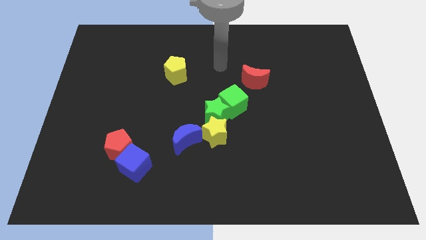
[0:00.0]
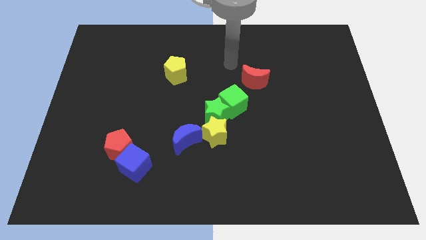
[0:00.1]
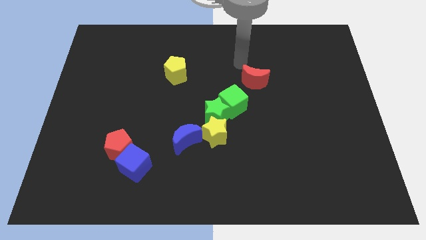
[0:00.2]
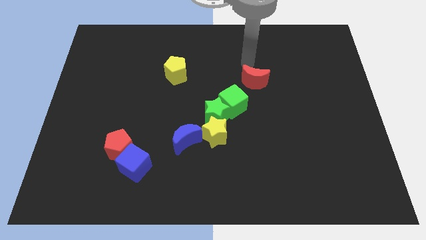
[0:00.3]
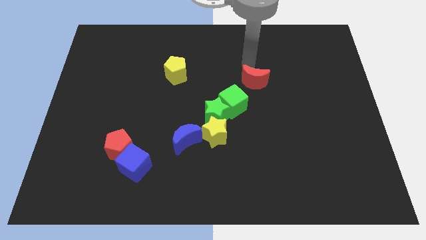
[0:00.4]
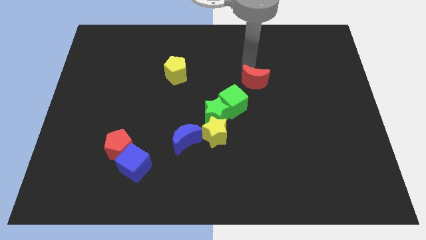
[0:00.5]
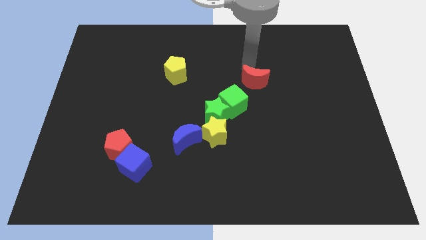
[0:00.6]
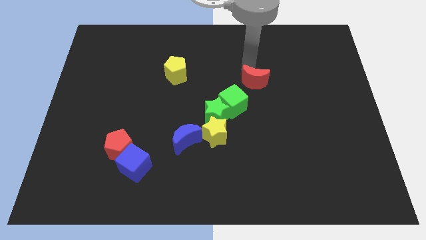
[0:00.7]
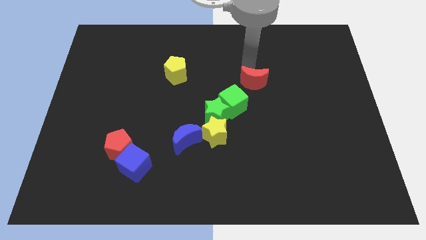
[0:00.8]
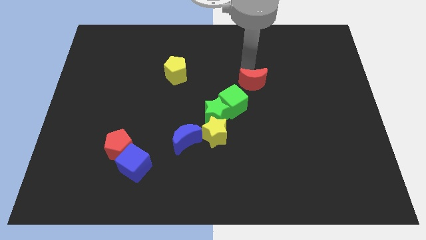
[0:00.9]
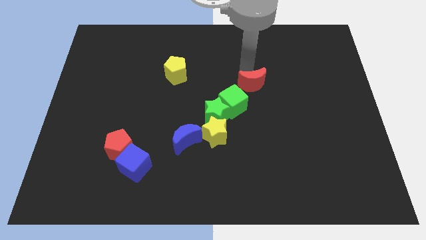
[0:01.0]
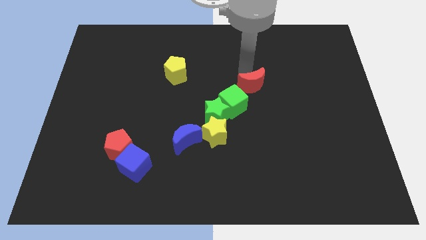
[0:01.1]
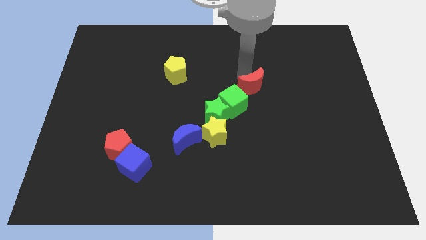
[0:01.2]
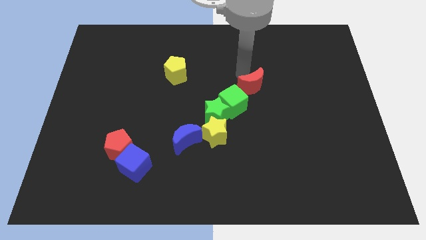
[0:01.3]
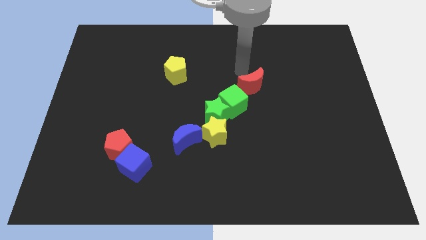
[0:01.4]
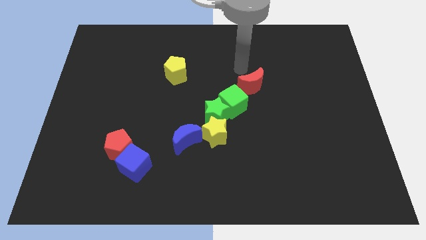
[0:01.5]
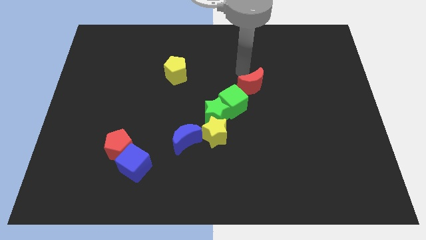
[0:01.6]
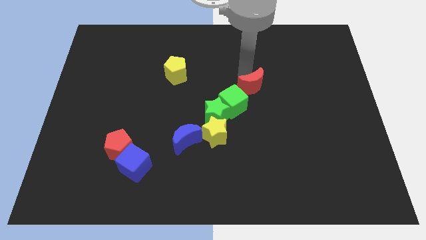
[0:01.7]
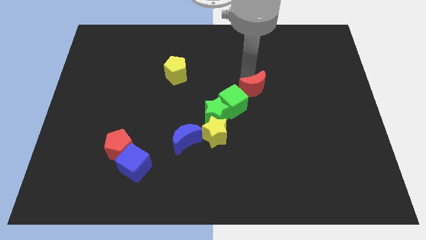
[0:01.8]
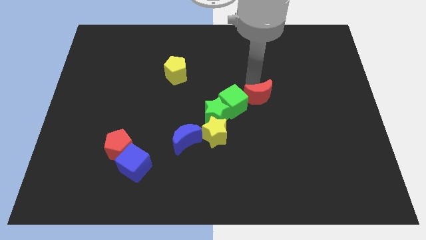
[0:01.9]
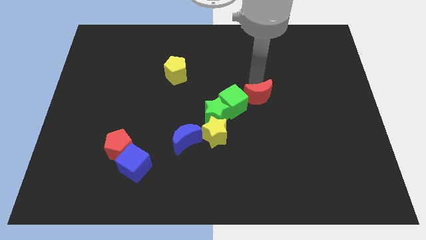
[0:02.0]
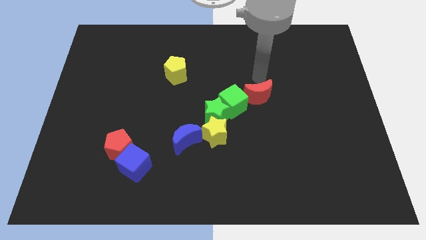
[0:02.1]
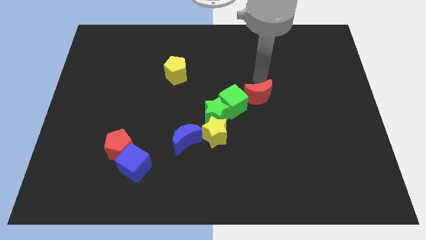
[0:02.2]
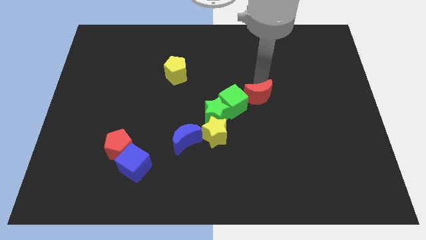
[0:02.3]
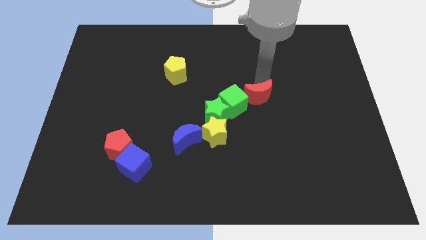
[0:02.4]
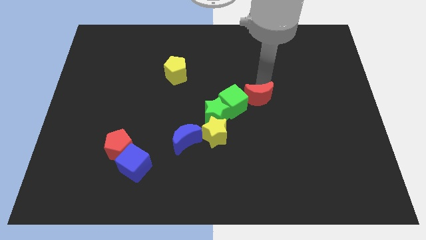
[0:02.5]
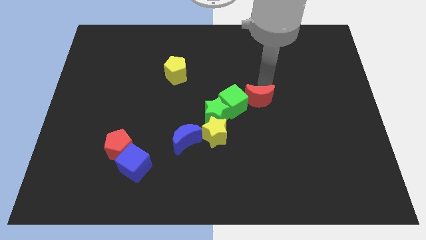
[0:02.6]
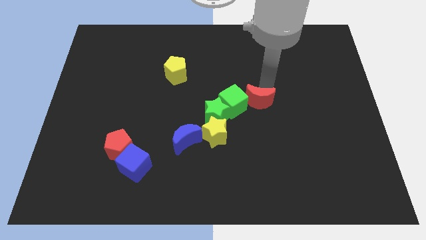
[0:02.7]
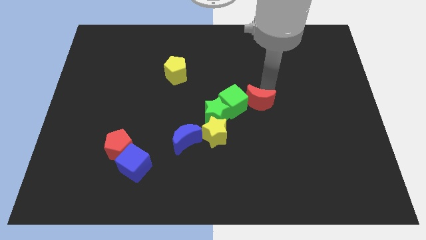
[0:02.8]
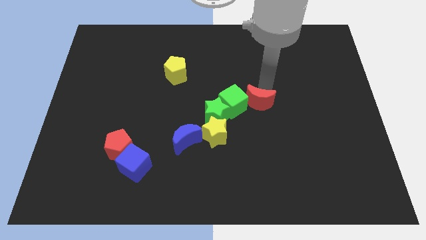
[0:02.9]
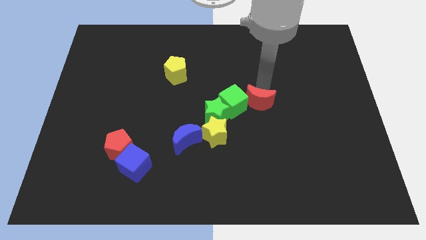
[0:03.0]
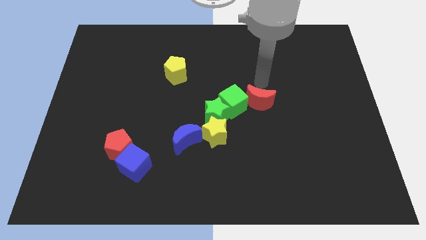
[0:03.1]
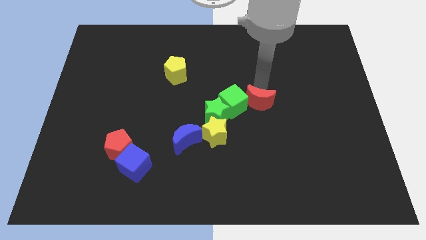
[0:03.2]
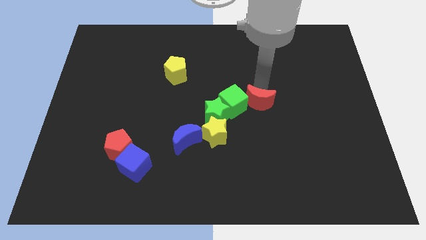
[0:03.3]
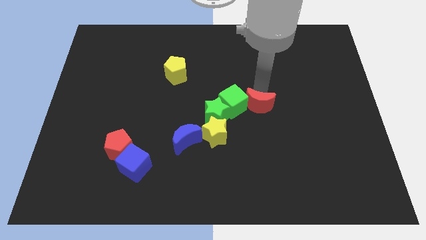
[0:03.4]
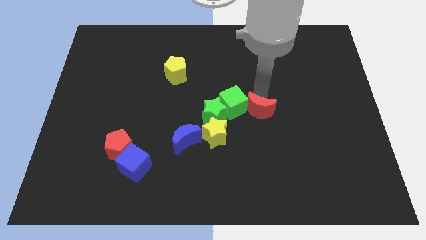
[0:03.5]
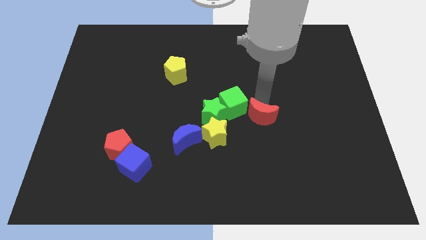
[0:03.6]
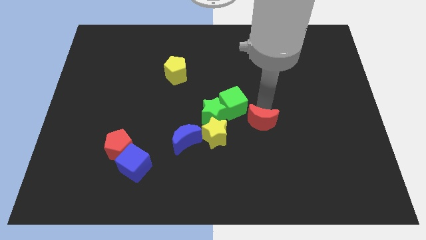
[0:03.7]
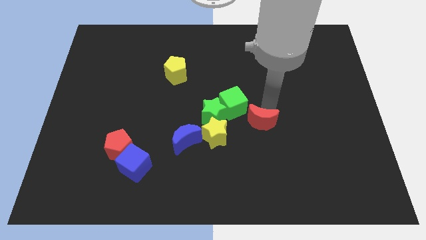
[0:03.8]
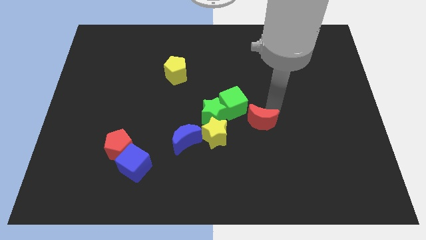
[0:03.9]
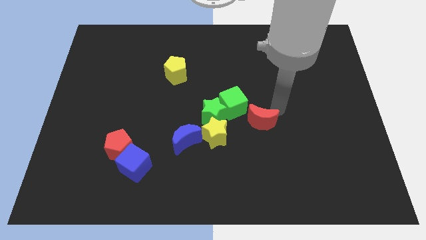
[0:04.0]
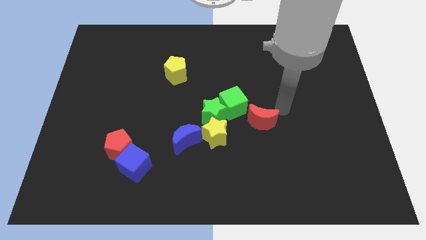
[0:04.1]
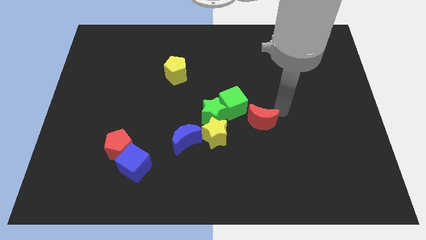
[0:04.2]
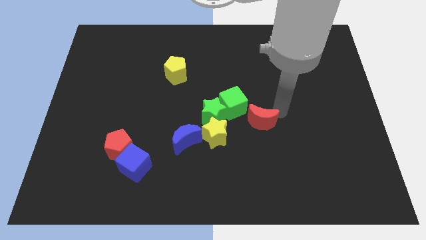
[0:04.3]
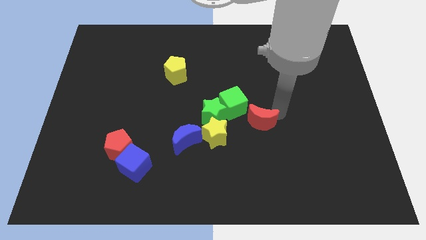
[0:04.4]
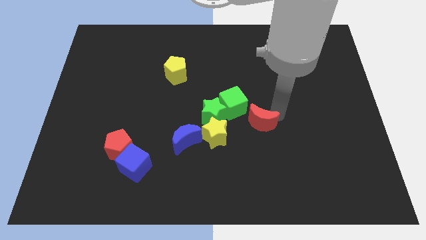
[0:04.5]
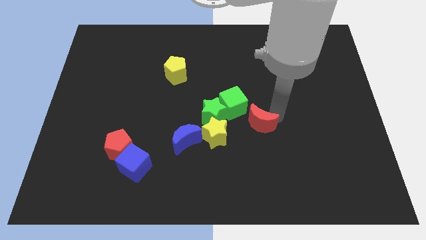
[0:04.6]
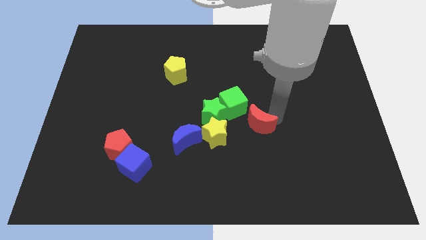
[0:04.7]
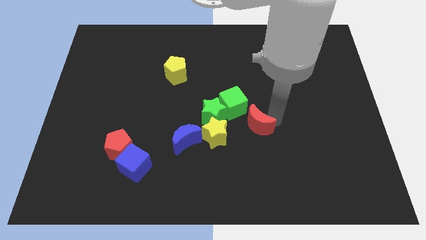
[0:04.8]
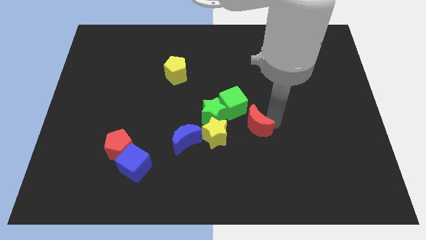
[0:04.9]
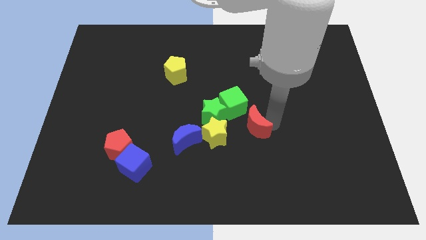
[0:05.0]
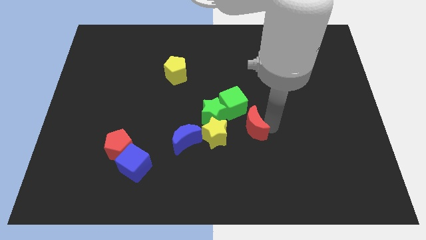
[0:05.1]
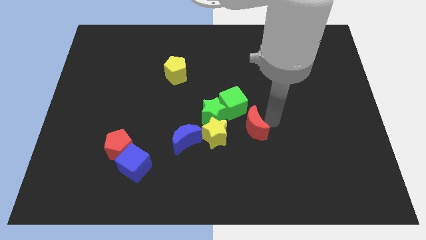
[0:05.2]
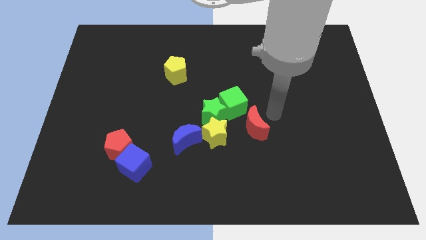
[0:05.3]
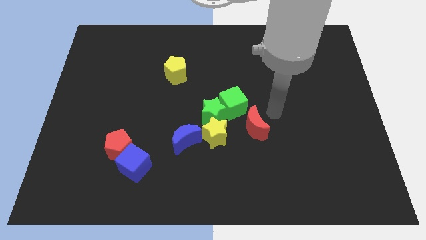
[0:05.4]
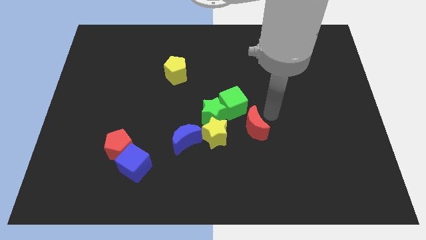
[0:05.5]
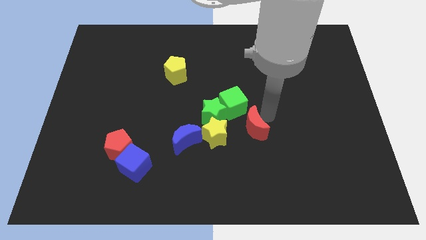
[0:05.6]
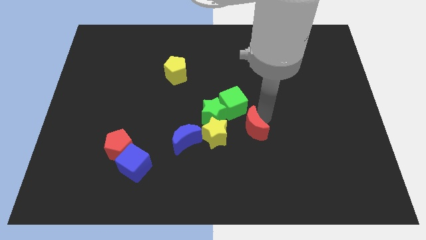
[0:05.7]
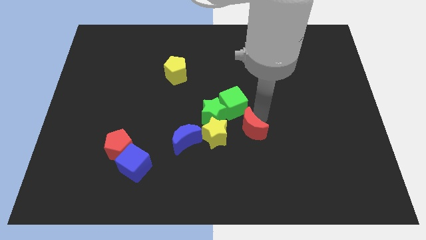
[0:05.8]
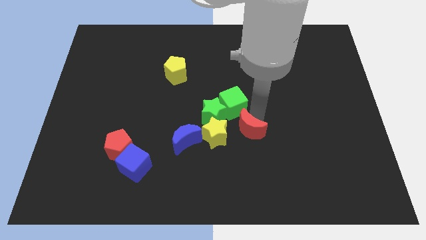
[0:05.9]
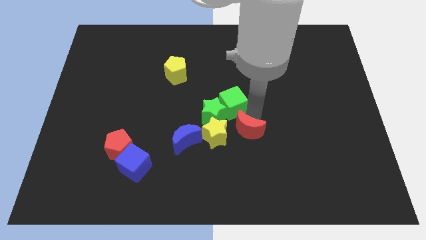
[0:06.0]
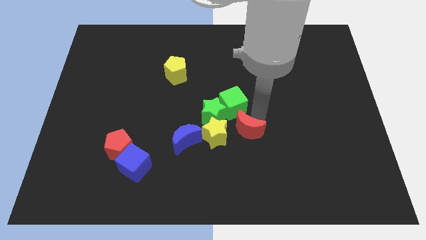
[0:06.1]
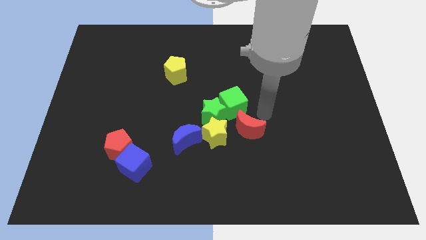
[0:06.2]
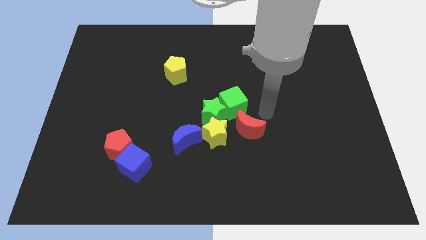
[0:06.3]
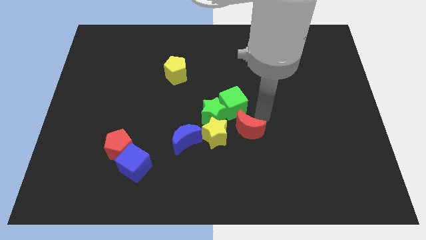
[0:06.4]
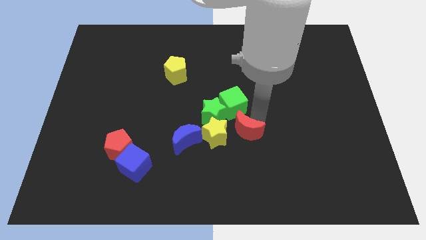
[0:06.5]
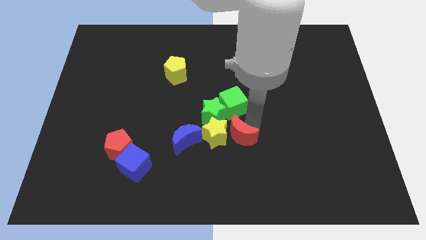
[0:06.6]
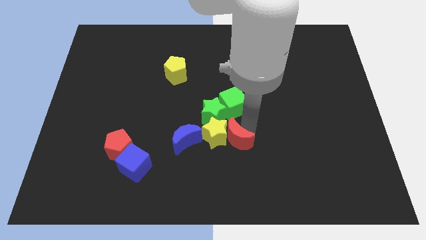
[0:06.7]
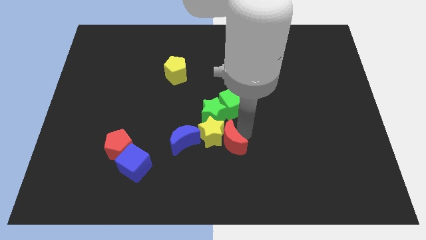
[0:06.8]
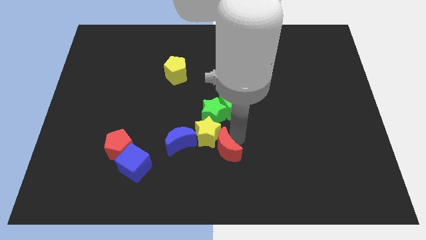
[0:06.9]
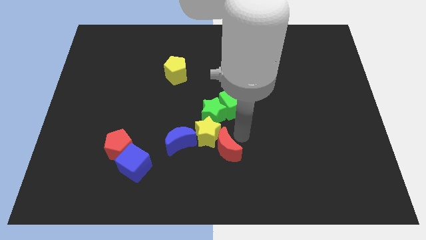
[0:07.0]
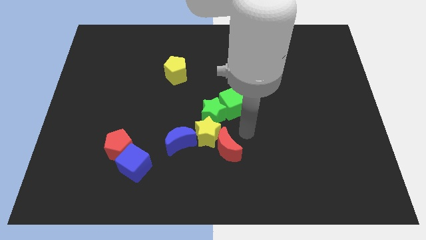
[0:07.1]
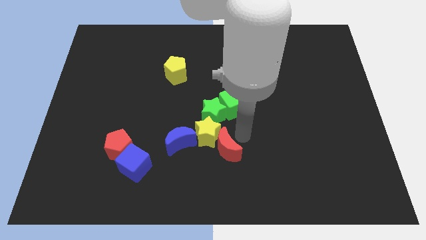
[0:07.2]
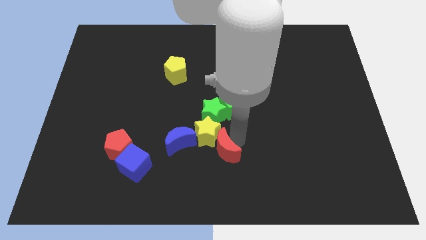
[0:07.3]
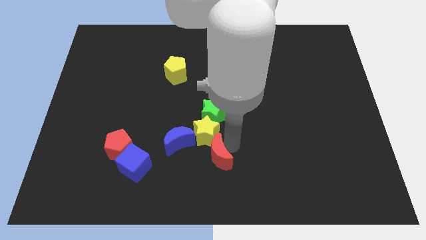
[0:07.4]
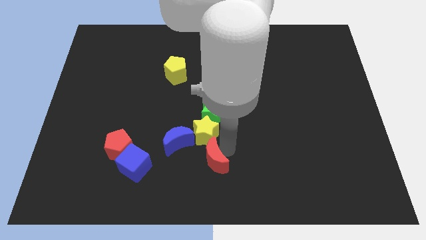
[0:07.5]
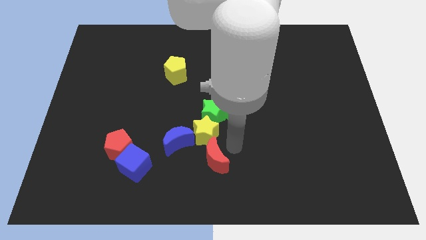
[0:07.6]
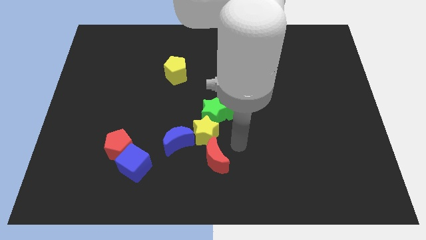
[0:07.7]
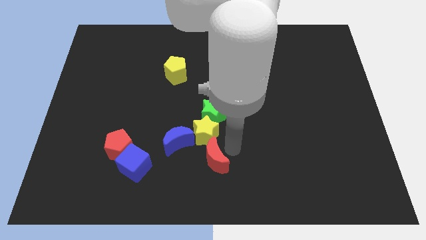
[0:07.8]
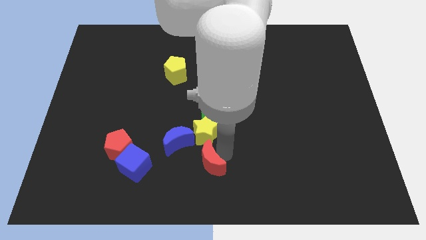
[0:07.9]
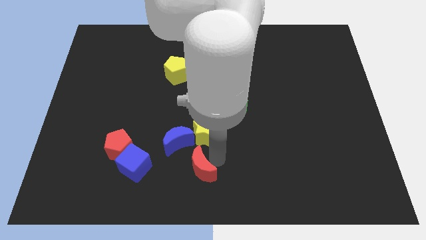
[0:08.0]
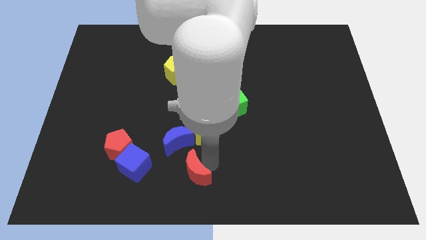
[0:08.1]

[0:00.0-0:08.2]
slide the red moon to the bottom side of the blue moon
